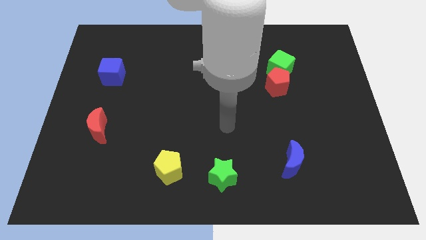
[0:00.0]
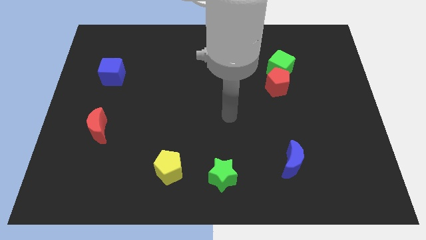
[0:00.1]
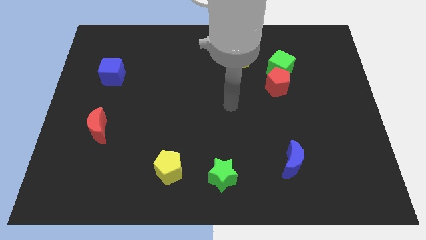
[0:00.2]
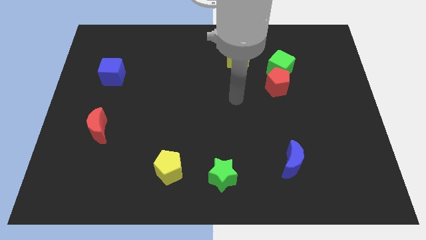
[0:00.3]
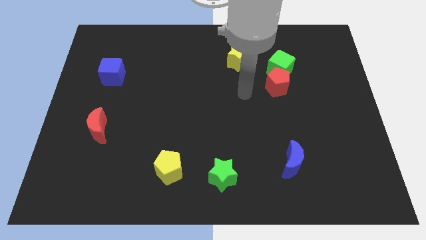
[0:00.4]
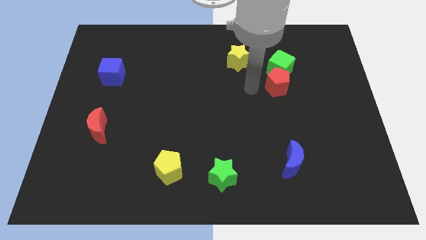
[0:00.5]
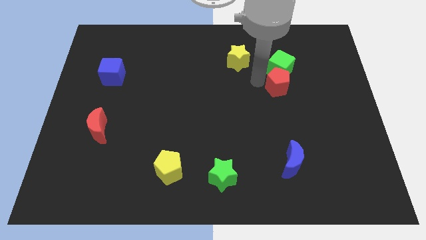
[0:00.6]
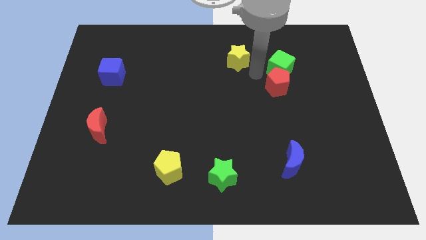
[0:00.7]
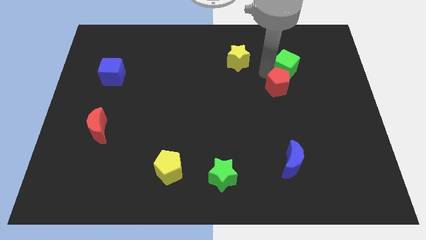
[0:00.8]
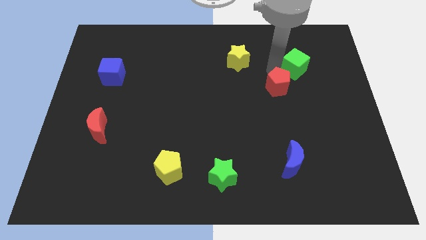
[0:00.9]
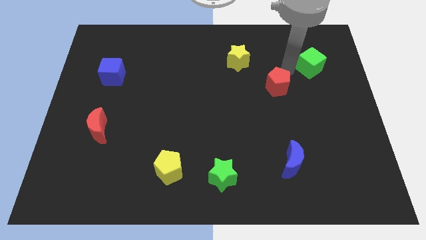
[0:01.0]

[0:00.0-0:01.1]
separate the red pentagon from the green cube

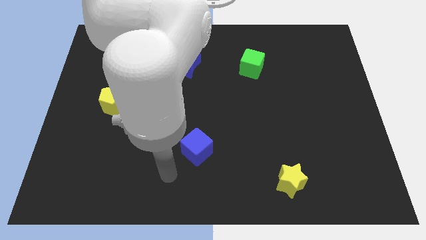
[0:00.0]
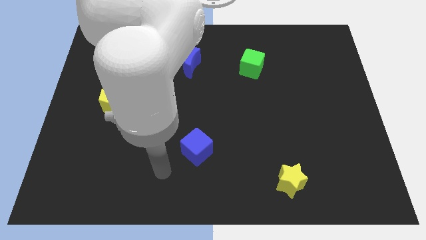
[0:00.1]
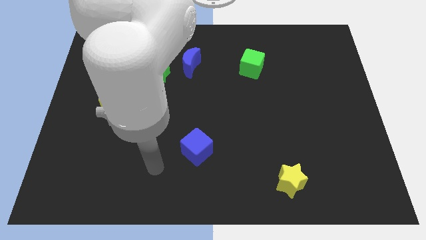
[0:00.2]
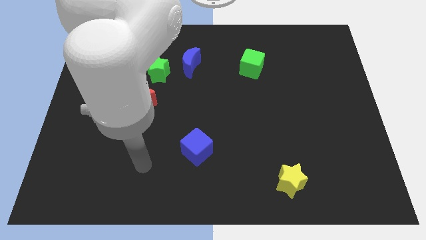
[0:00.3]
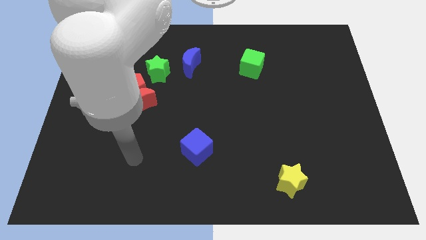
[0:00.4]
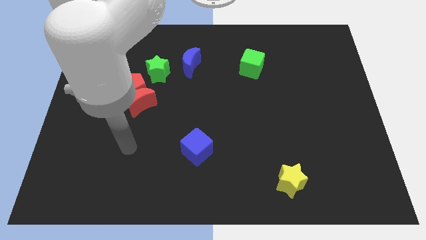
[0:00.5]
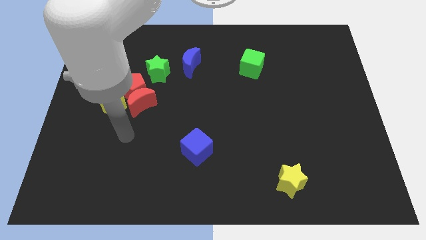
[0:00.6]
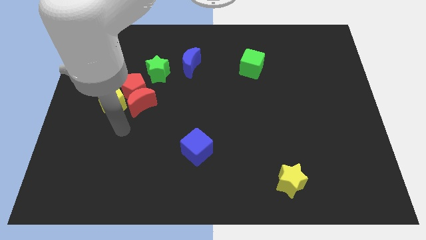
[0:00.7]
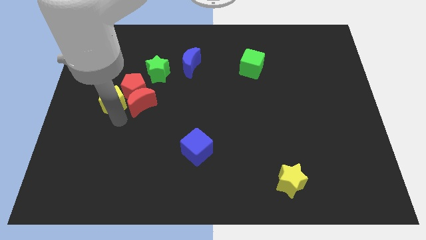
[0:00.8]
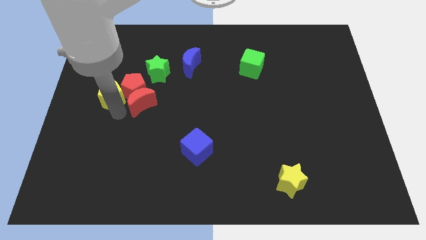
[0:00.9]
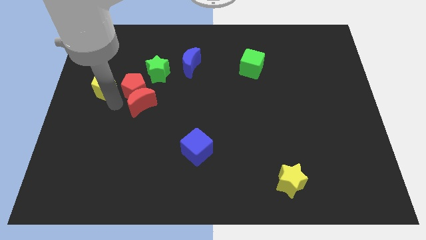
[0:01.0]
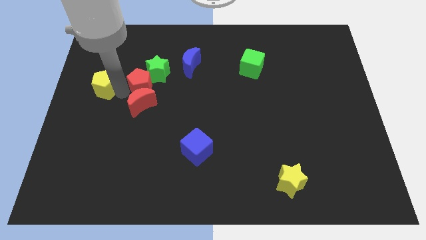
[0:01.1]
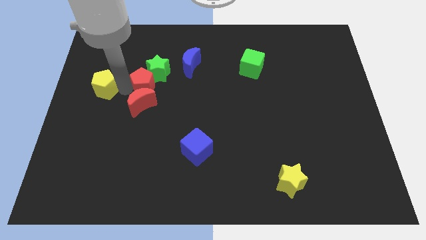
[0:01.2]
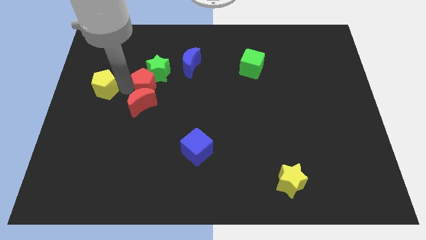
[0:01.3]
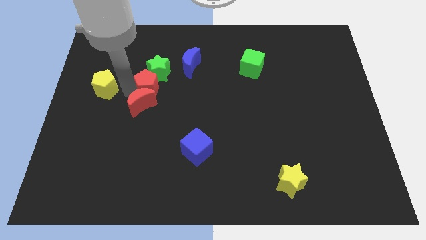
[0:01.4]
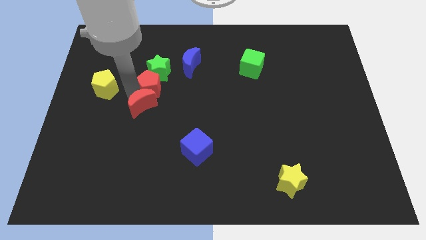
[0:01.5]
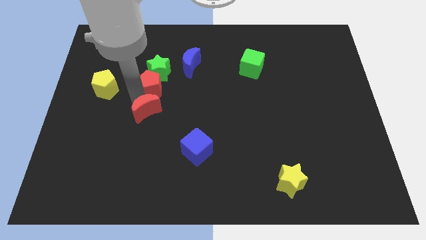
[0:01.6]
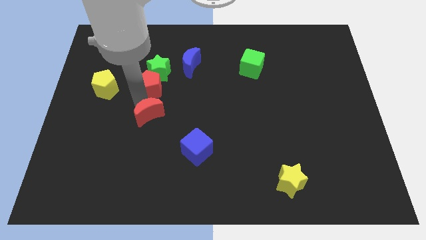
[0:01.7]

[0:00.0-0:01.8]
move the red moon away from the red pentagon and yellow pentagon

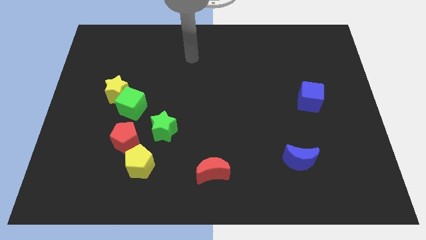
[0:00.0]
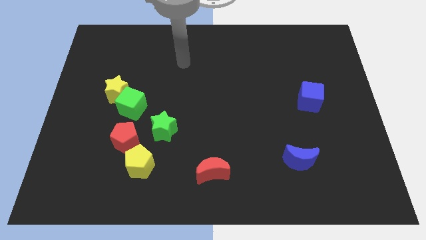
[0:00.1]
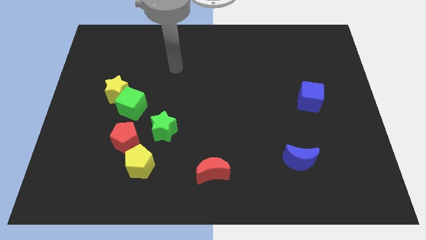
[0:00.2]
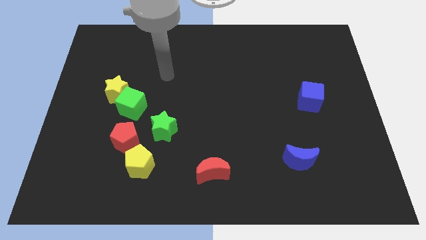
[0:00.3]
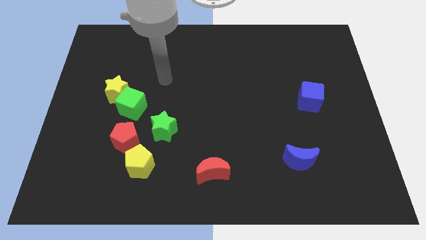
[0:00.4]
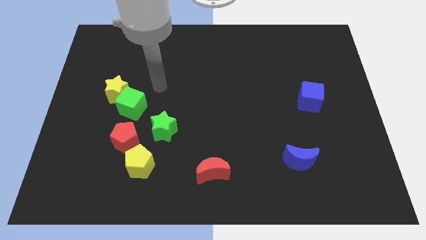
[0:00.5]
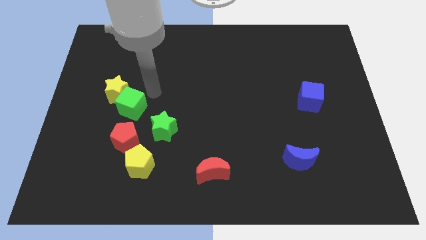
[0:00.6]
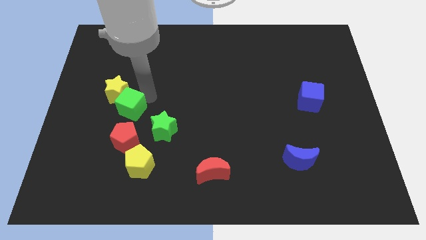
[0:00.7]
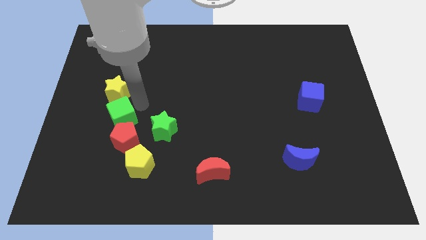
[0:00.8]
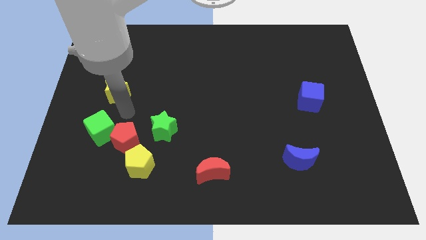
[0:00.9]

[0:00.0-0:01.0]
pull the yellow star apart from the green cube

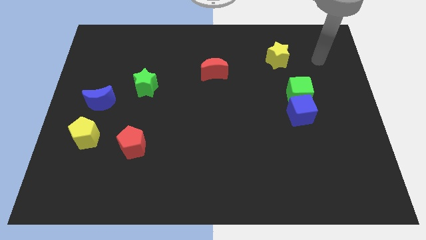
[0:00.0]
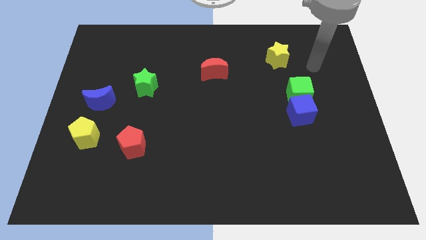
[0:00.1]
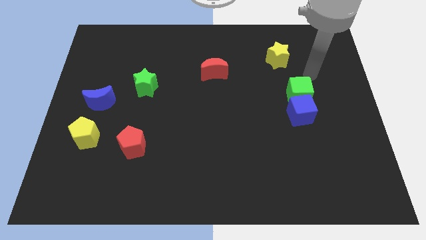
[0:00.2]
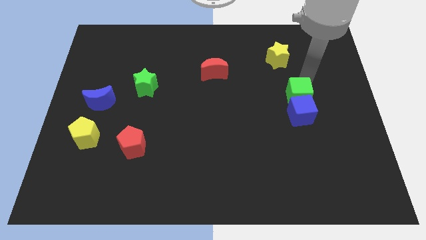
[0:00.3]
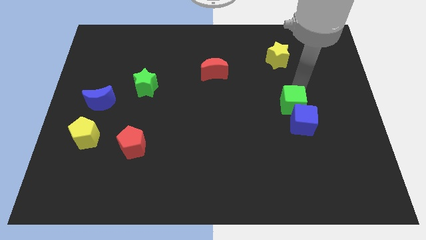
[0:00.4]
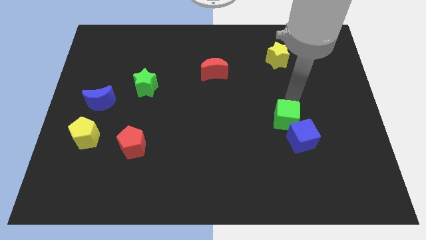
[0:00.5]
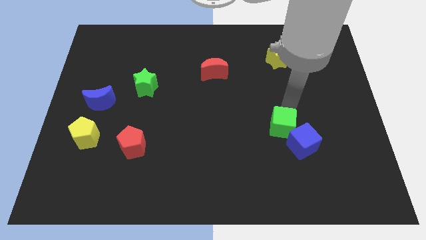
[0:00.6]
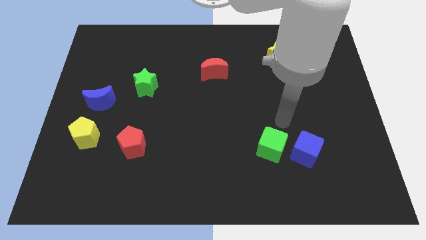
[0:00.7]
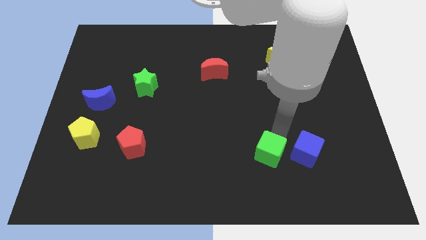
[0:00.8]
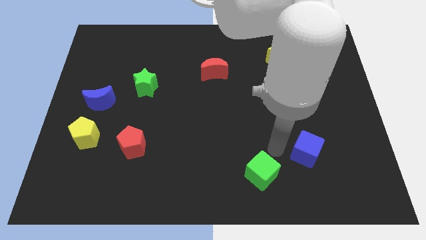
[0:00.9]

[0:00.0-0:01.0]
pull the blue cube apart from the green cube

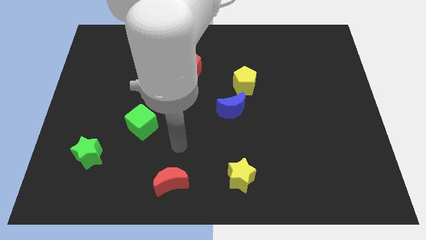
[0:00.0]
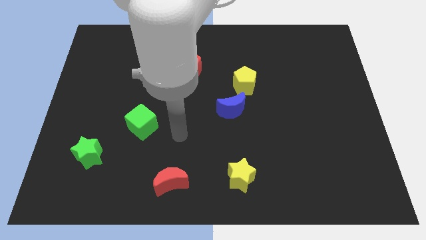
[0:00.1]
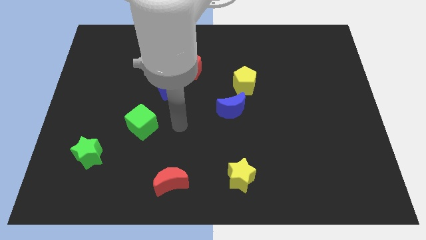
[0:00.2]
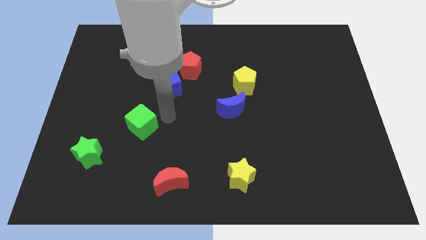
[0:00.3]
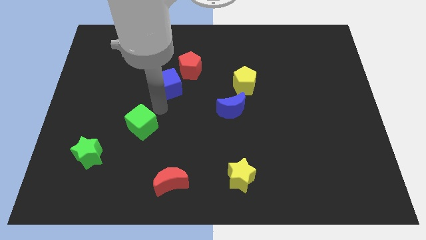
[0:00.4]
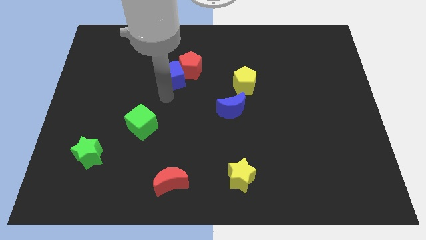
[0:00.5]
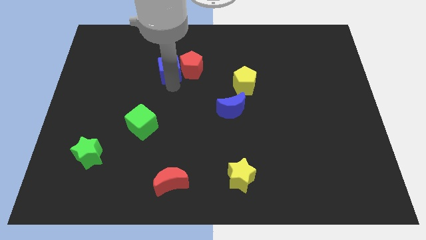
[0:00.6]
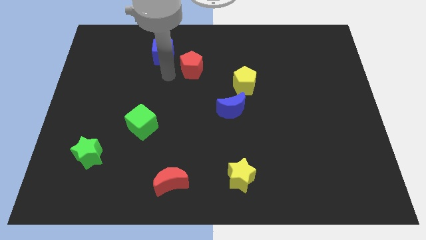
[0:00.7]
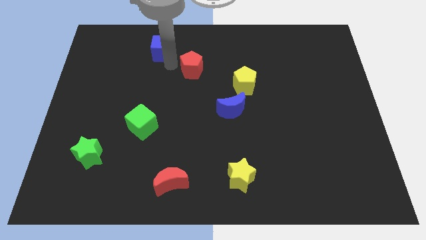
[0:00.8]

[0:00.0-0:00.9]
move the red pentagon away from the blue cube

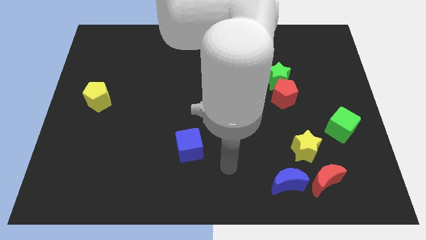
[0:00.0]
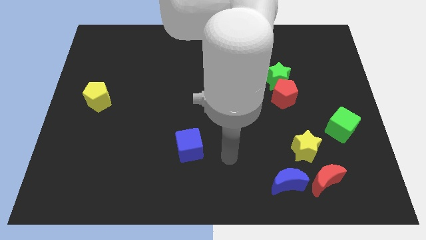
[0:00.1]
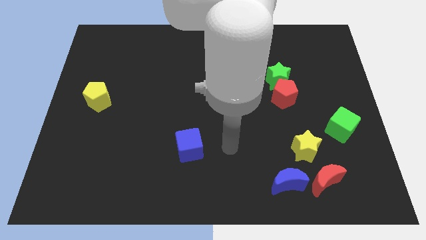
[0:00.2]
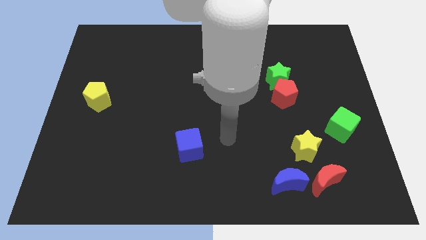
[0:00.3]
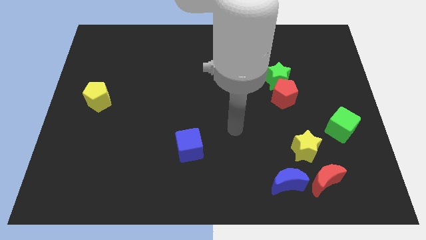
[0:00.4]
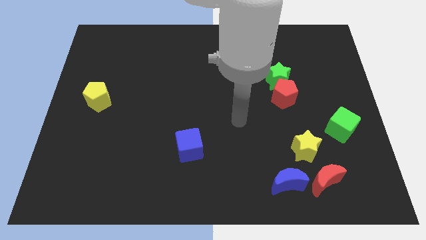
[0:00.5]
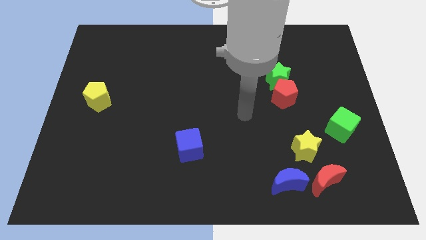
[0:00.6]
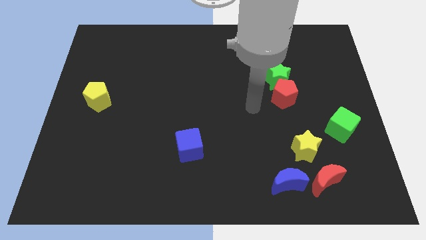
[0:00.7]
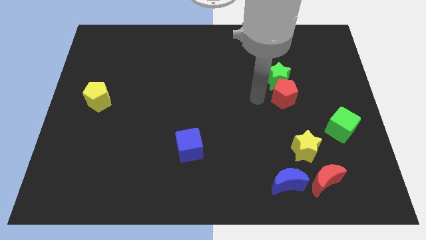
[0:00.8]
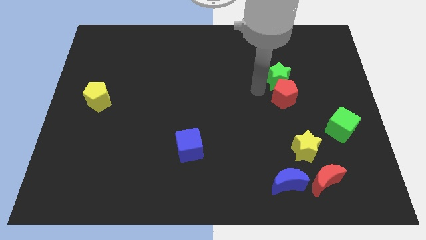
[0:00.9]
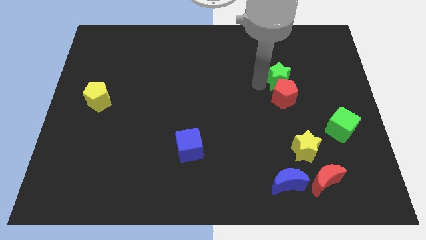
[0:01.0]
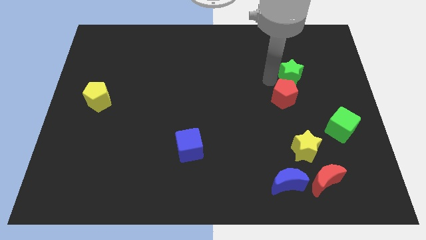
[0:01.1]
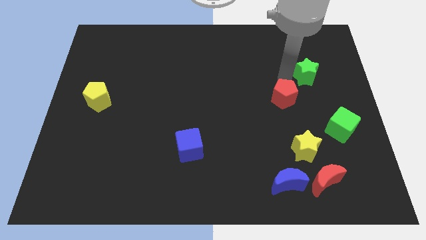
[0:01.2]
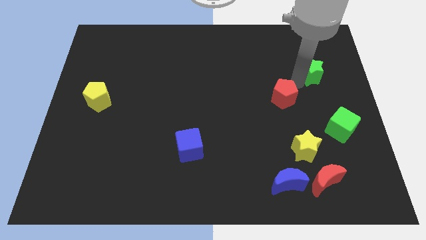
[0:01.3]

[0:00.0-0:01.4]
separate the red pentagon from the green star

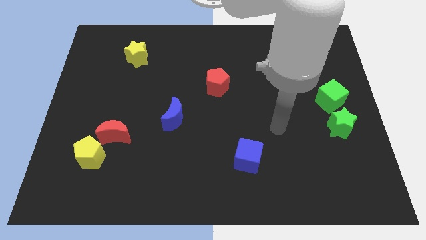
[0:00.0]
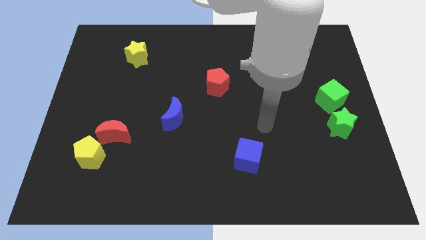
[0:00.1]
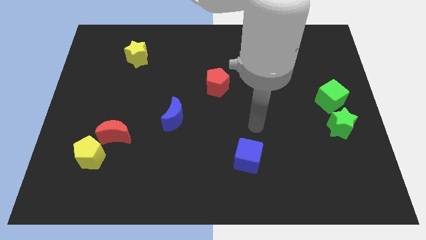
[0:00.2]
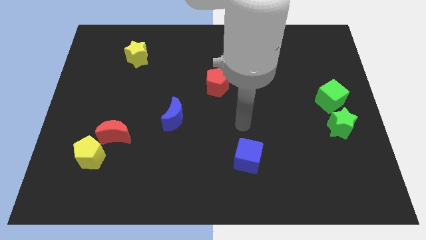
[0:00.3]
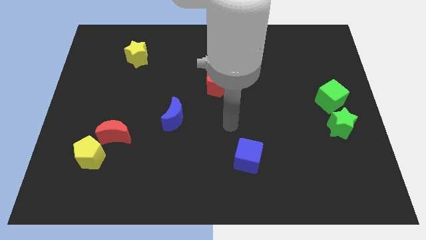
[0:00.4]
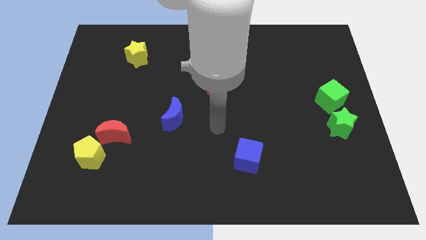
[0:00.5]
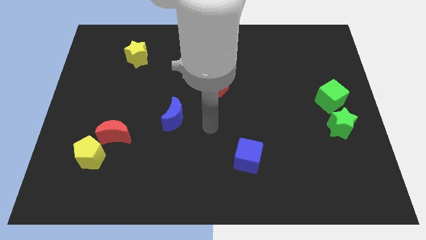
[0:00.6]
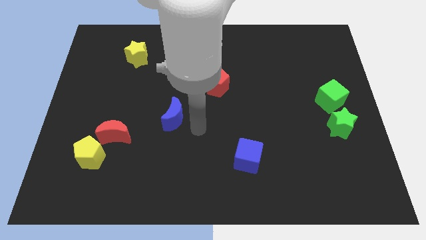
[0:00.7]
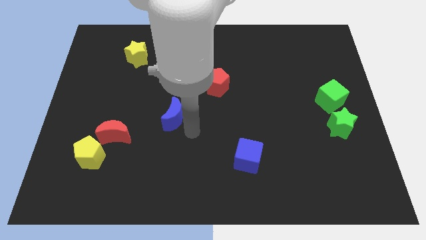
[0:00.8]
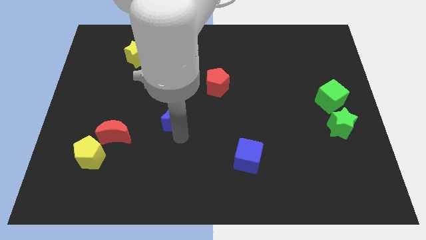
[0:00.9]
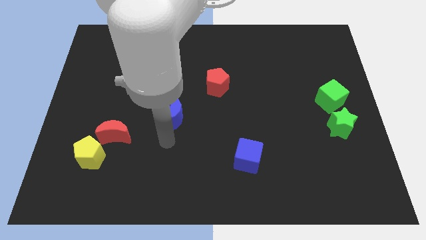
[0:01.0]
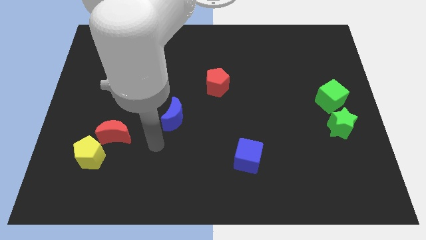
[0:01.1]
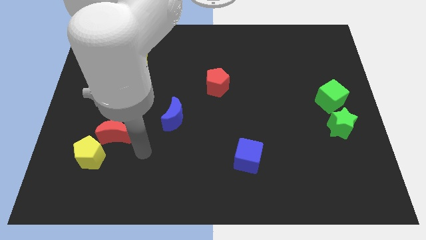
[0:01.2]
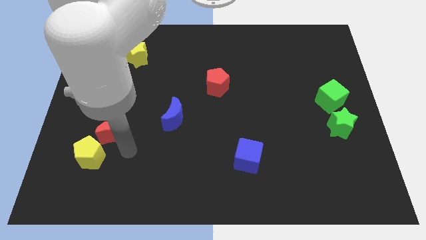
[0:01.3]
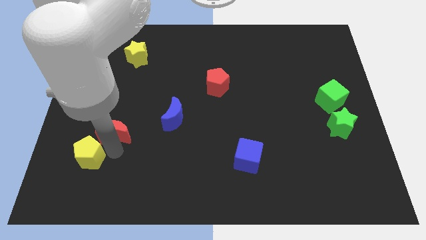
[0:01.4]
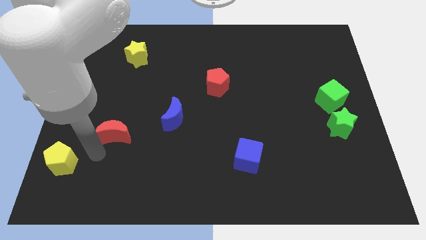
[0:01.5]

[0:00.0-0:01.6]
move the red moon away from the yellow pentagon

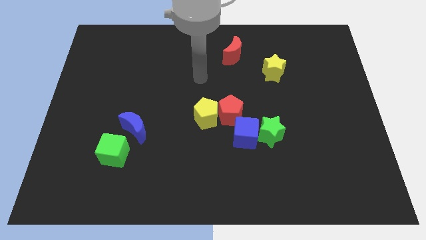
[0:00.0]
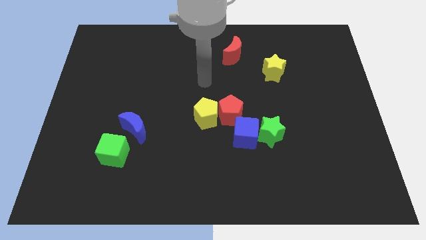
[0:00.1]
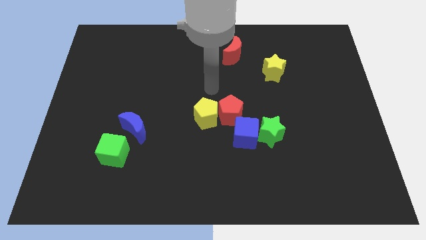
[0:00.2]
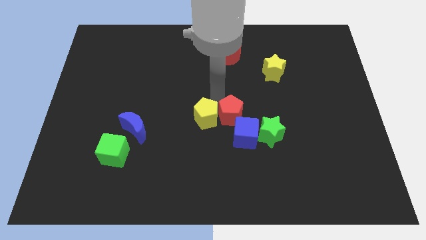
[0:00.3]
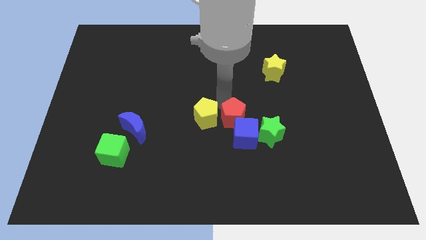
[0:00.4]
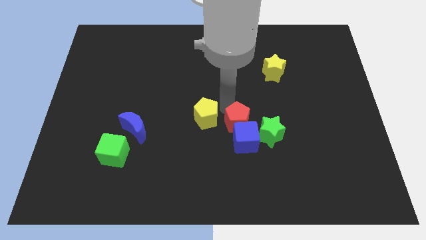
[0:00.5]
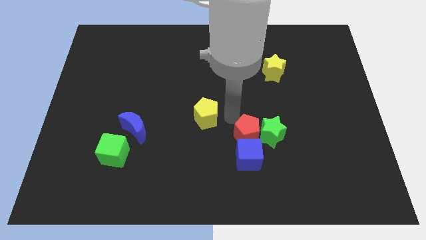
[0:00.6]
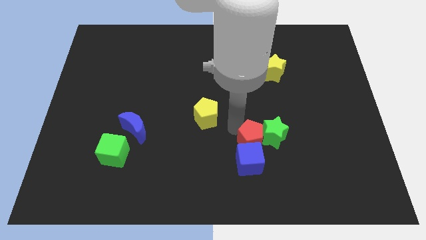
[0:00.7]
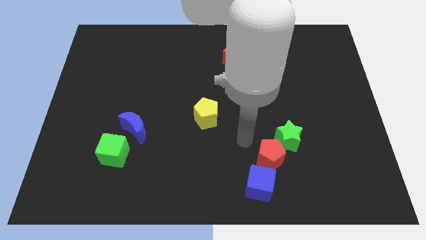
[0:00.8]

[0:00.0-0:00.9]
move the green star away from the blue cube
